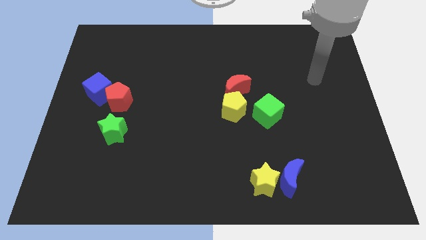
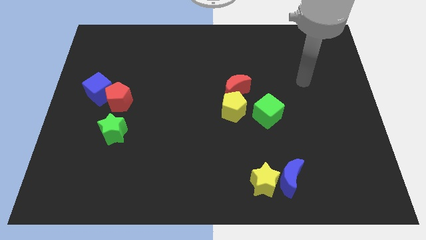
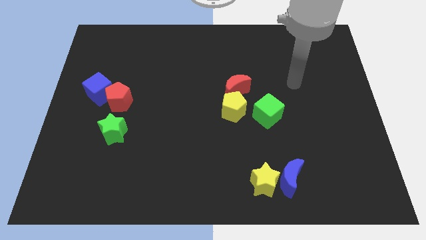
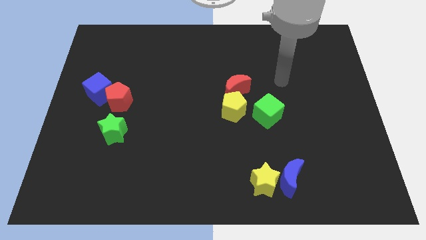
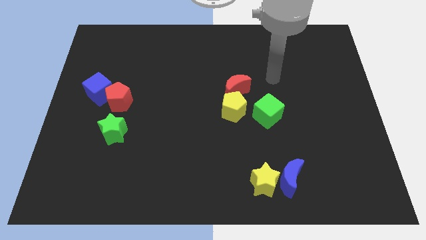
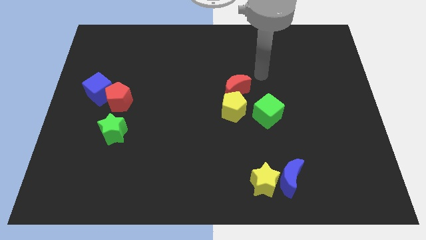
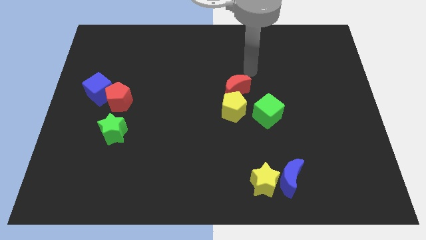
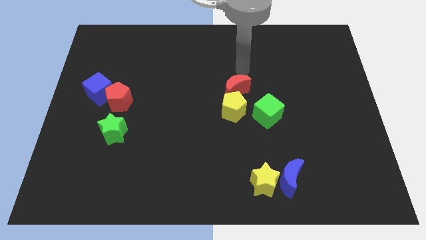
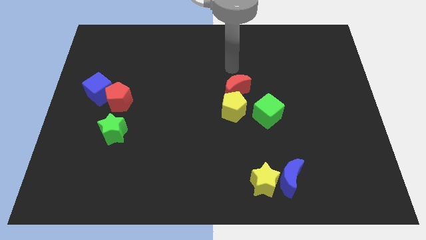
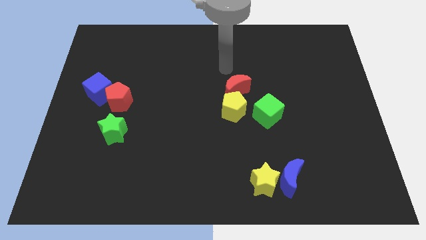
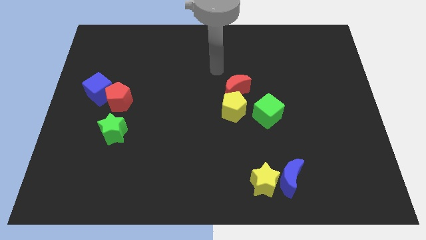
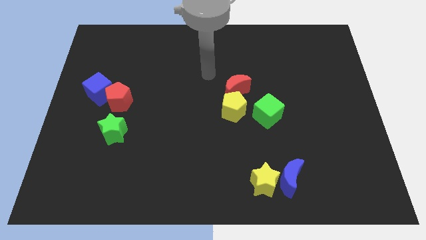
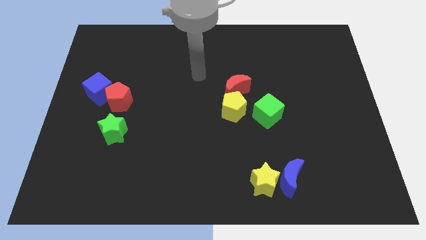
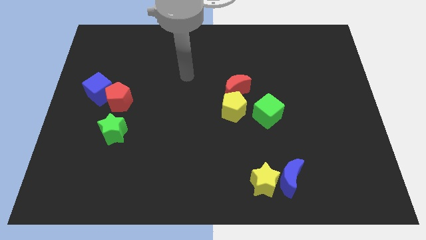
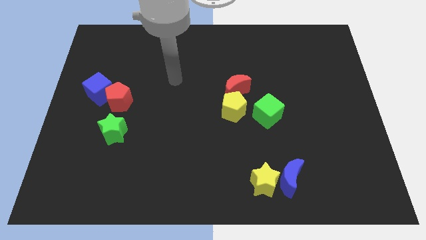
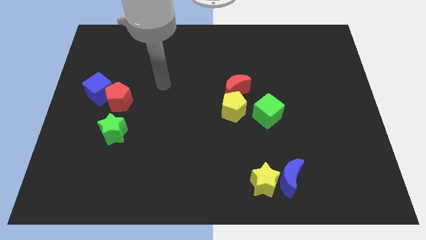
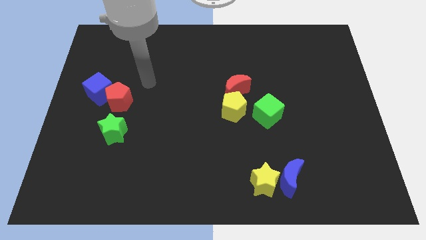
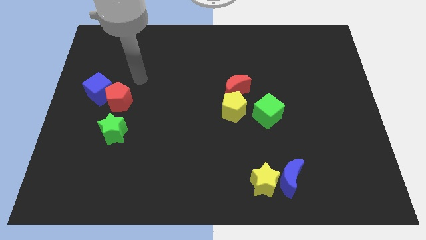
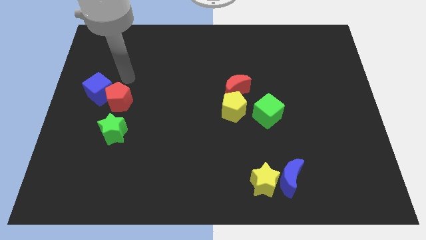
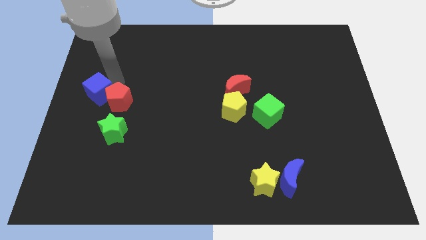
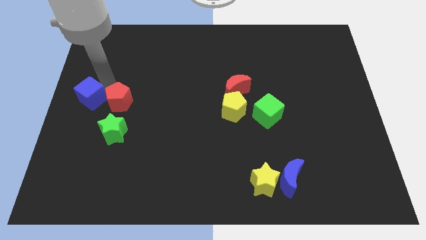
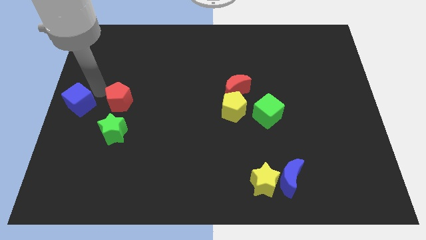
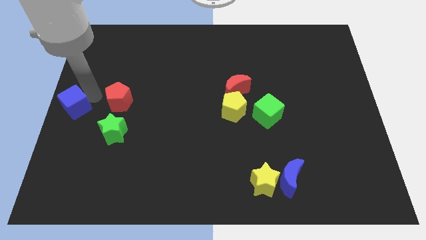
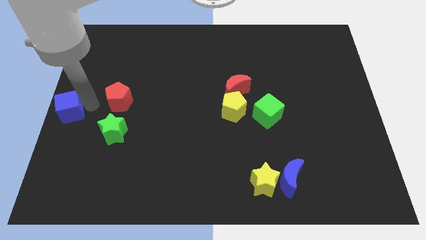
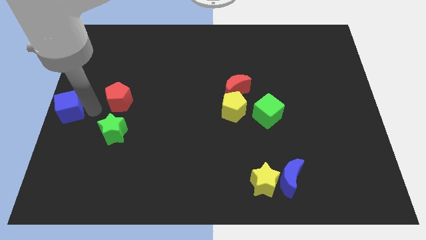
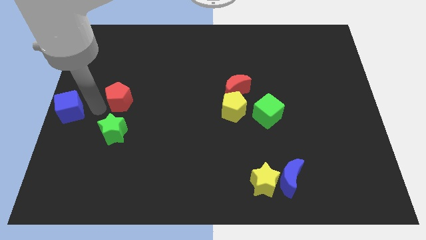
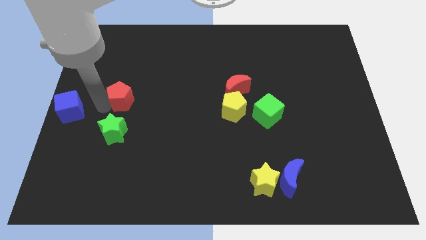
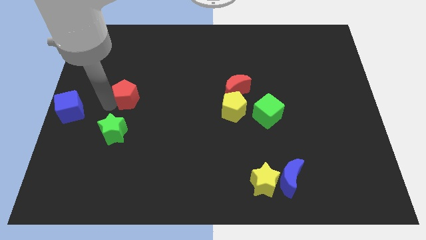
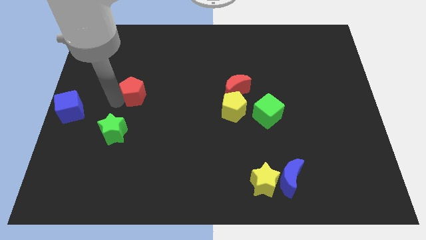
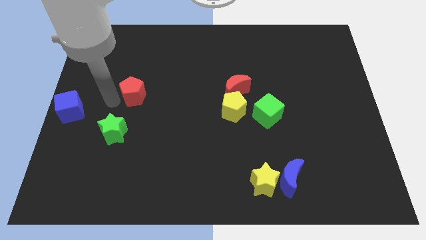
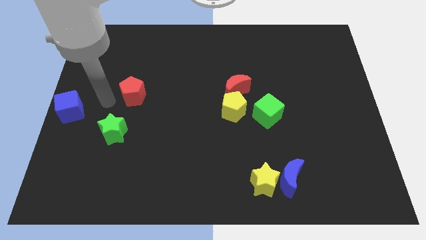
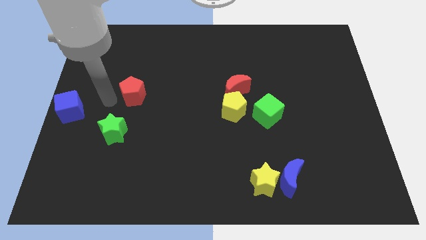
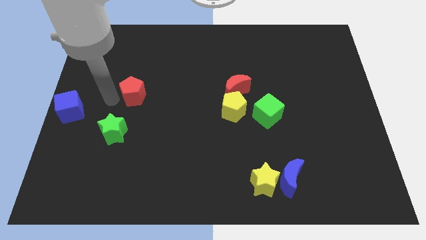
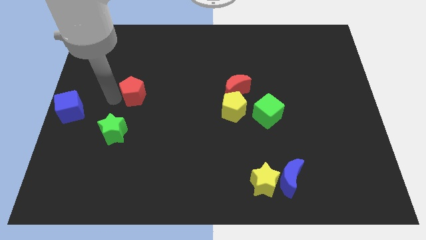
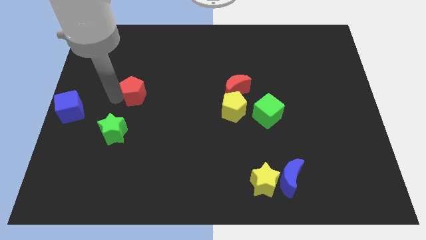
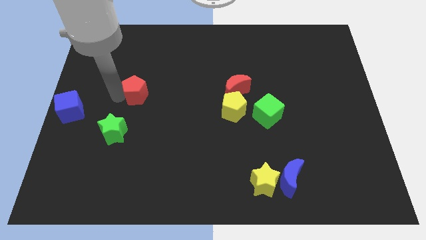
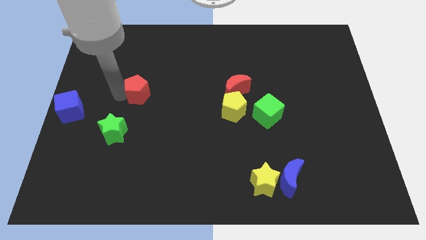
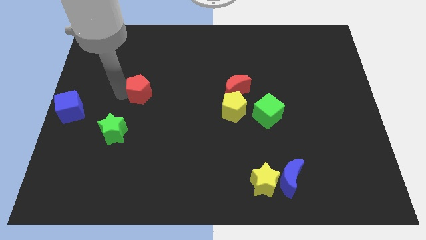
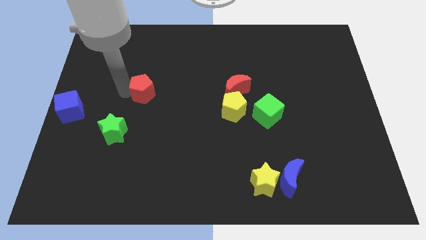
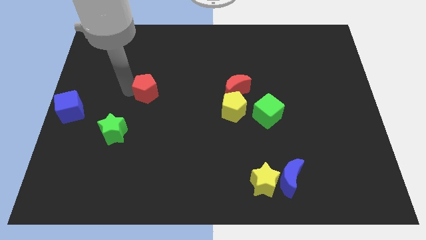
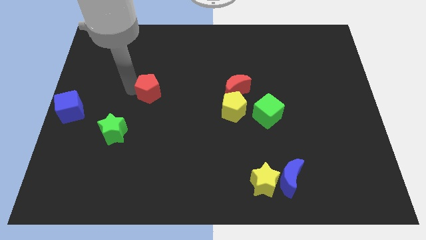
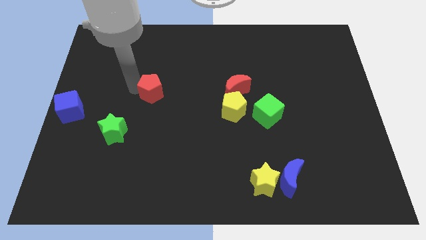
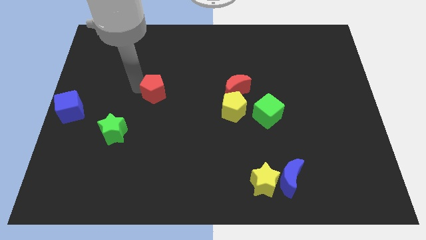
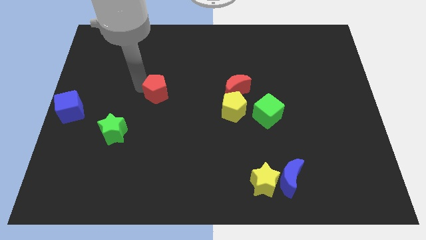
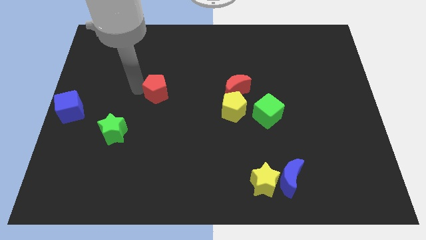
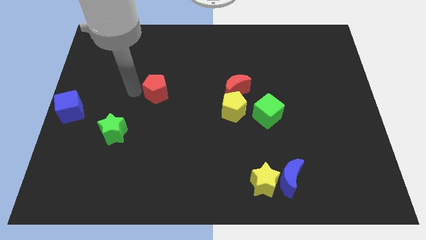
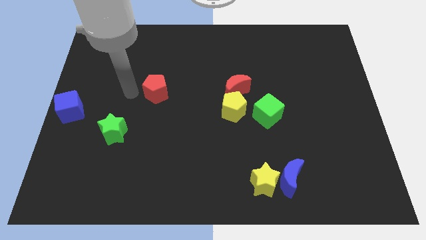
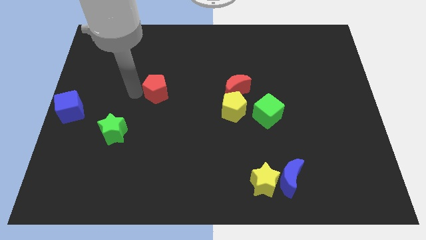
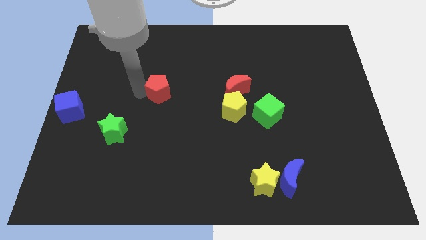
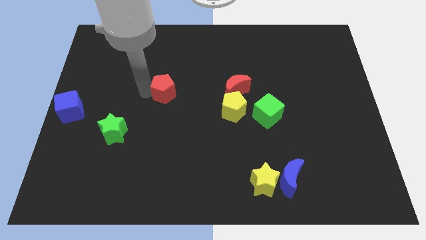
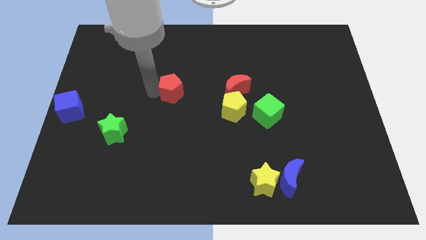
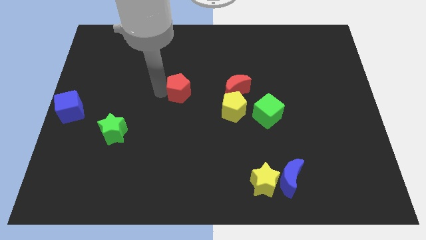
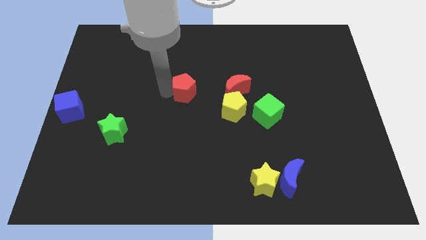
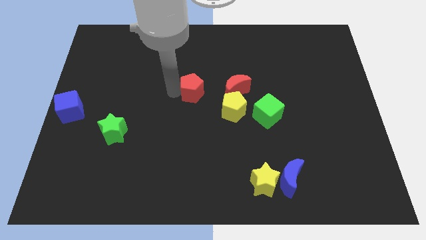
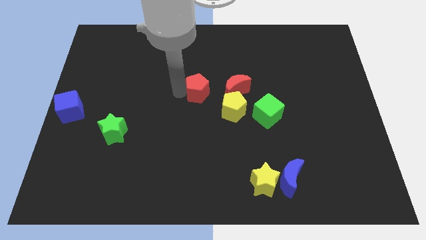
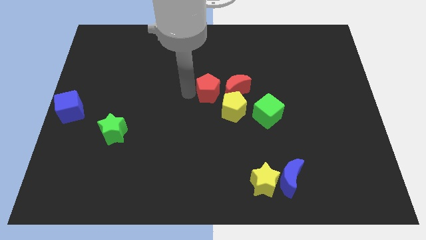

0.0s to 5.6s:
slide the red pentagon right

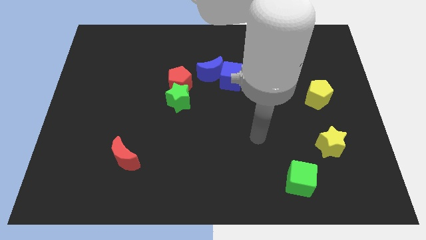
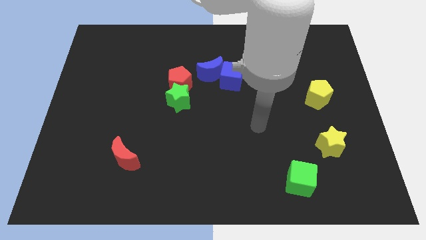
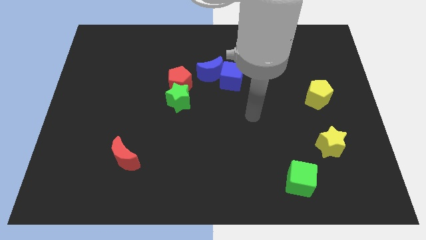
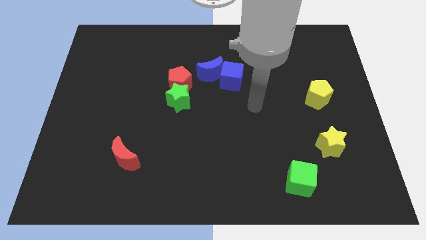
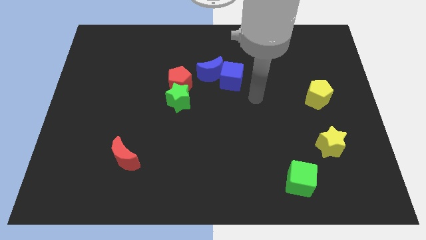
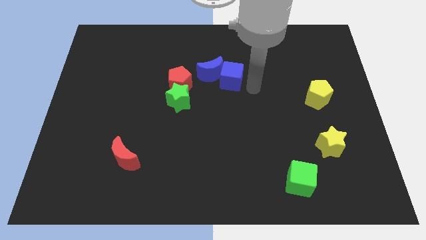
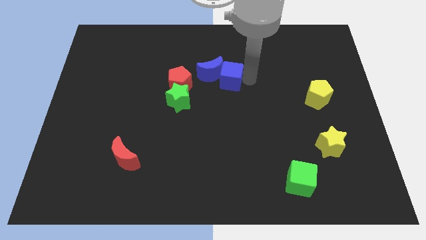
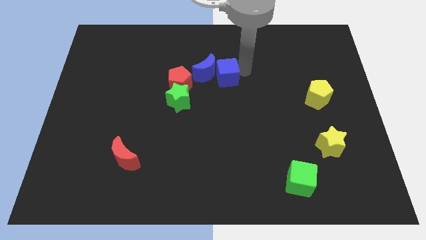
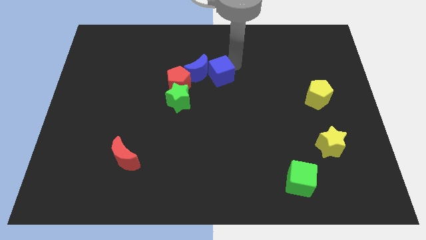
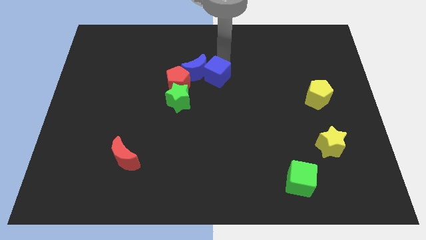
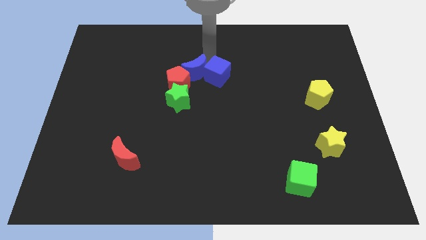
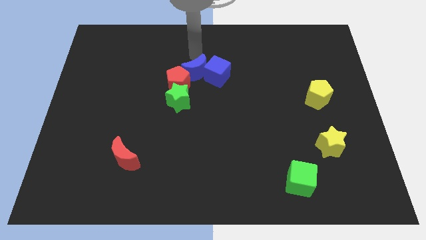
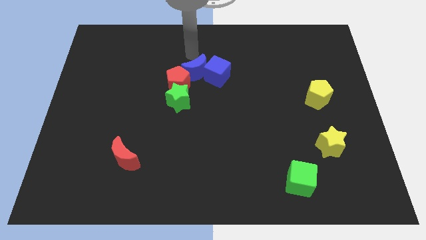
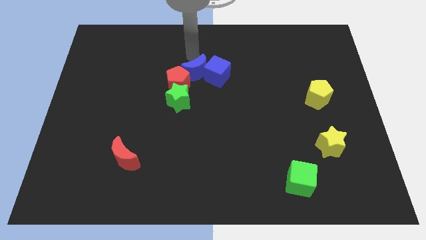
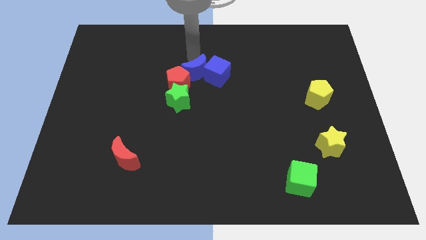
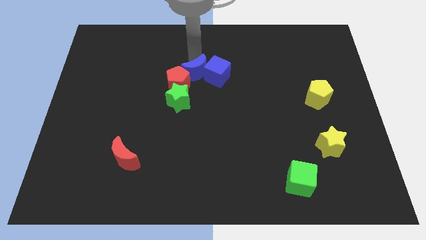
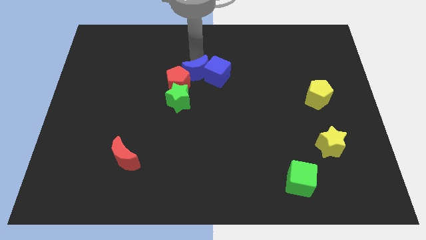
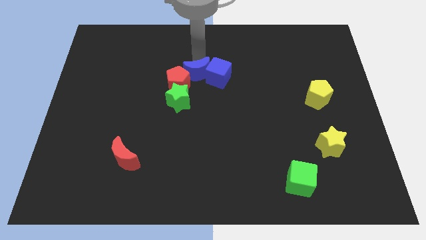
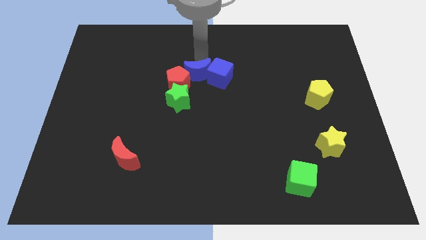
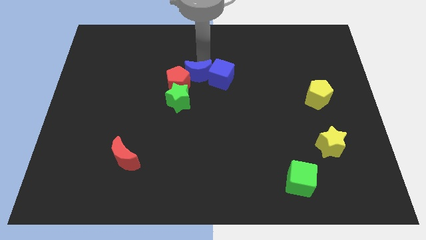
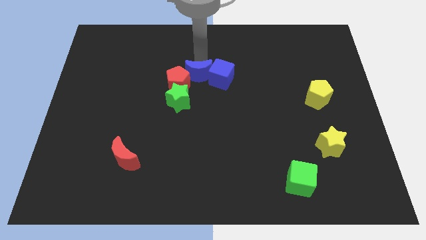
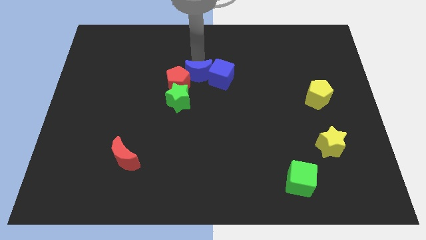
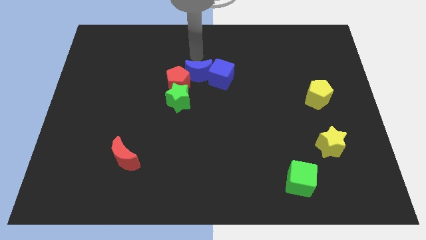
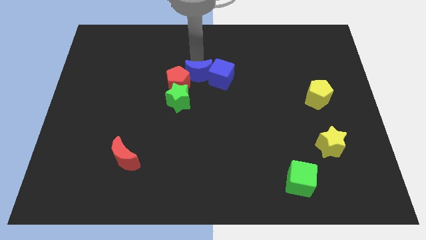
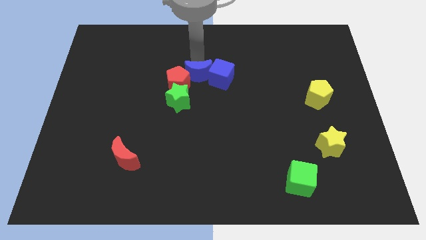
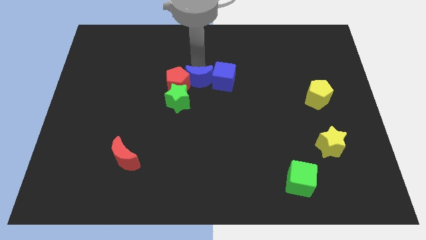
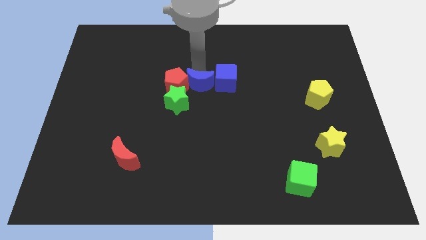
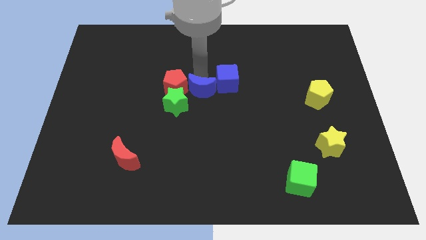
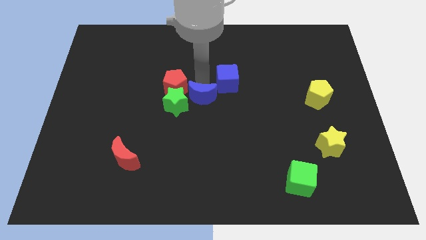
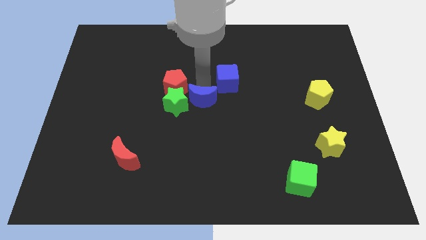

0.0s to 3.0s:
slide the blue moon downwards and then to the left a little
